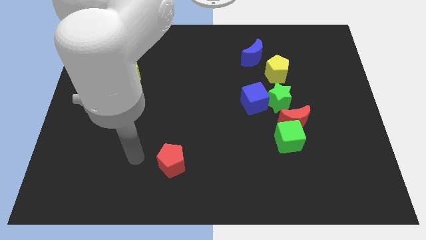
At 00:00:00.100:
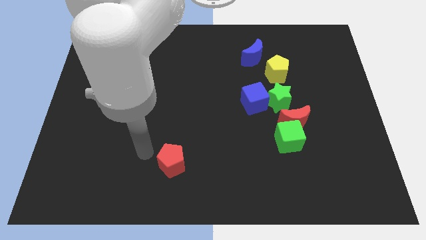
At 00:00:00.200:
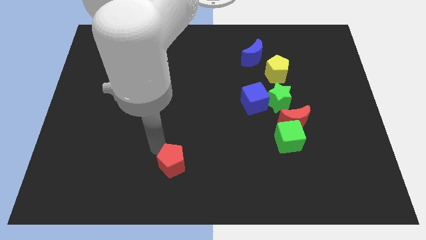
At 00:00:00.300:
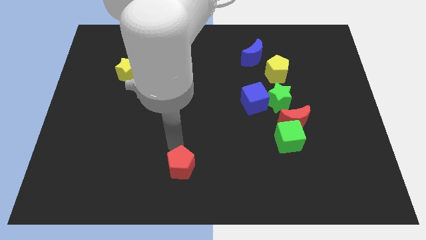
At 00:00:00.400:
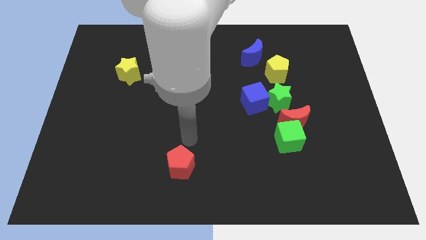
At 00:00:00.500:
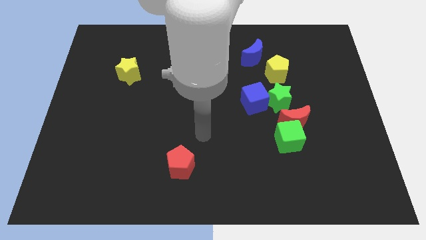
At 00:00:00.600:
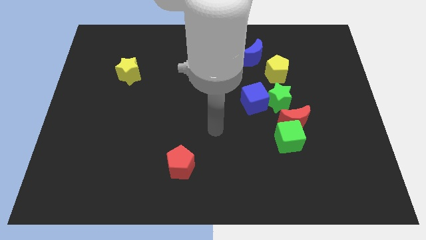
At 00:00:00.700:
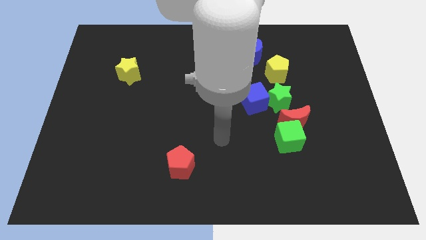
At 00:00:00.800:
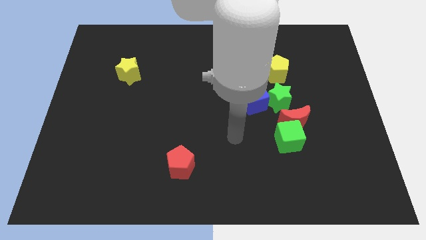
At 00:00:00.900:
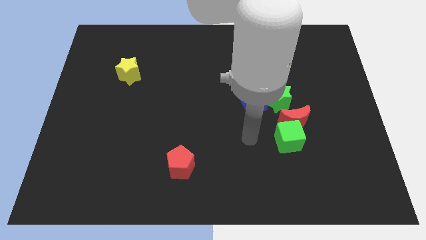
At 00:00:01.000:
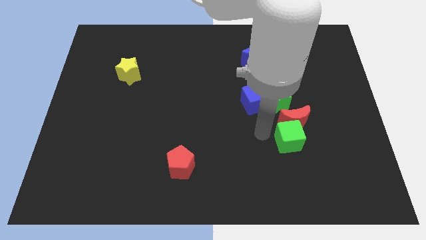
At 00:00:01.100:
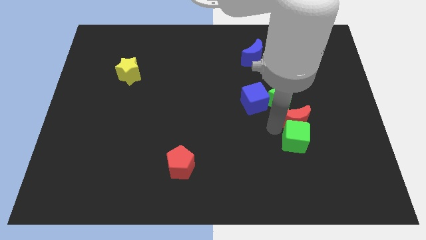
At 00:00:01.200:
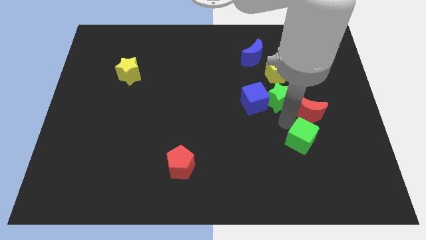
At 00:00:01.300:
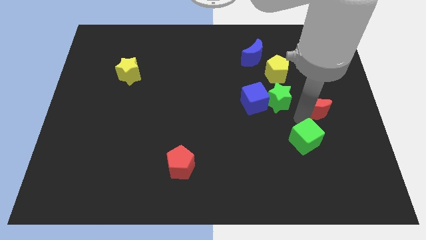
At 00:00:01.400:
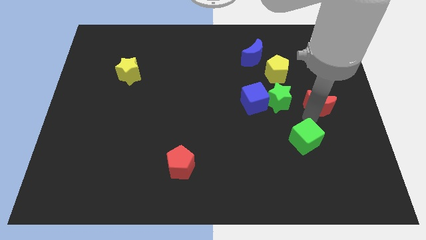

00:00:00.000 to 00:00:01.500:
pull the green cube apart from the red moon

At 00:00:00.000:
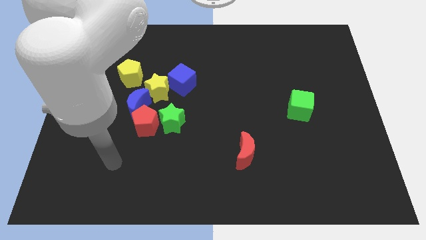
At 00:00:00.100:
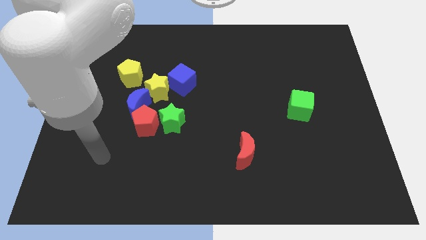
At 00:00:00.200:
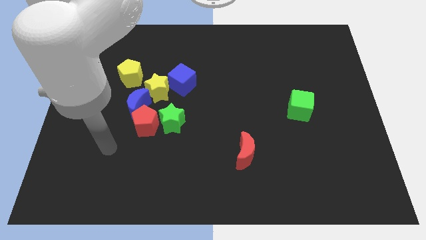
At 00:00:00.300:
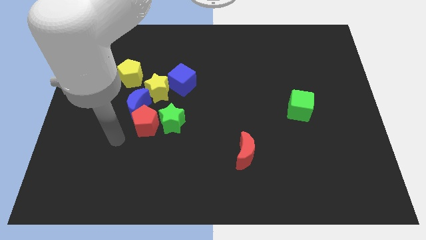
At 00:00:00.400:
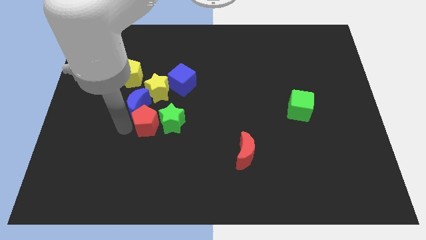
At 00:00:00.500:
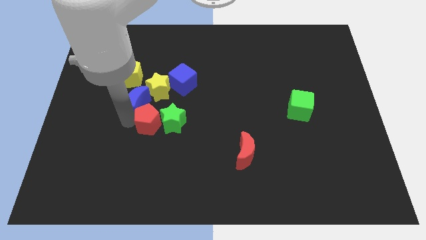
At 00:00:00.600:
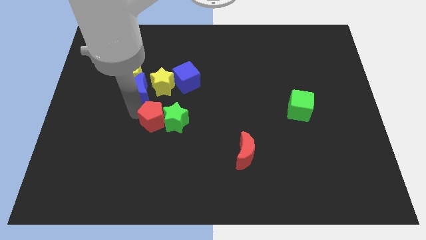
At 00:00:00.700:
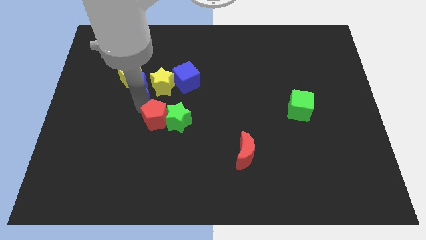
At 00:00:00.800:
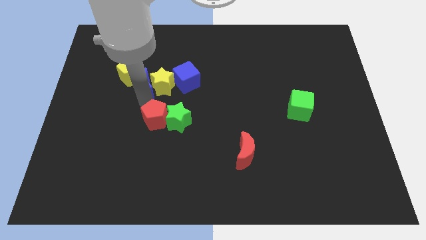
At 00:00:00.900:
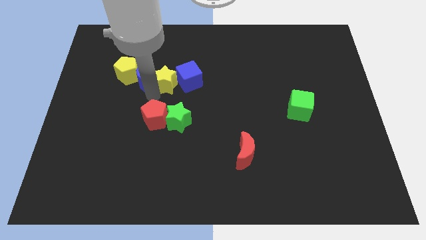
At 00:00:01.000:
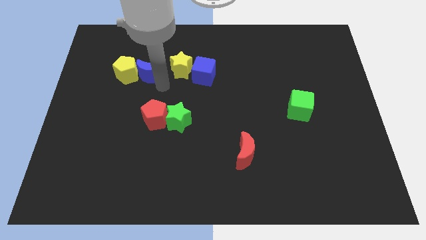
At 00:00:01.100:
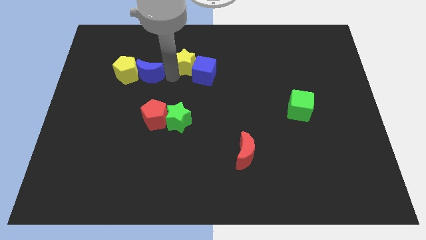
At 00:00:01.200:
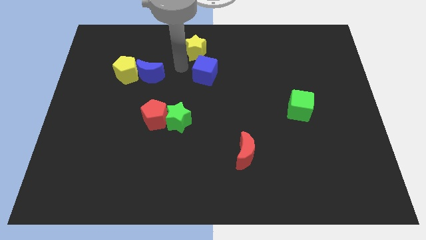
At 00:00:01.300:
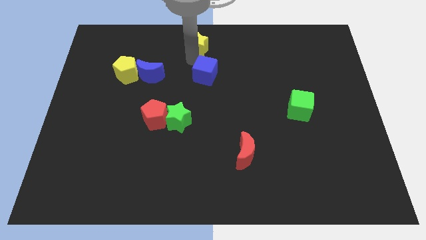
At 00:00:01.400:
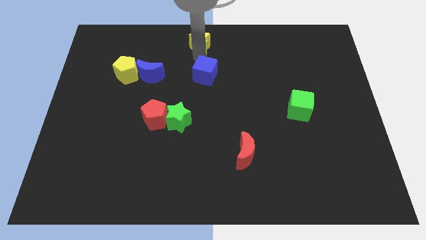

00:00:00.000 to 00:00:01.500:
pull the blue cube apart from the yellow star

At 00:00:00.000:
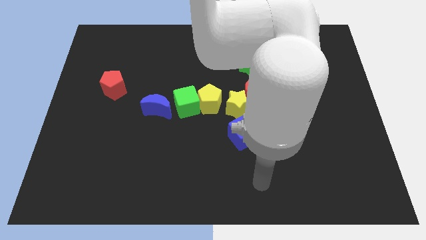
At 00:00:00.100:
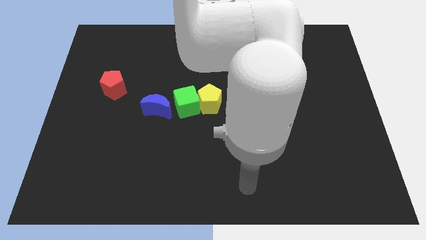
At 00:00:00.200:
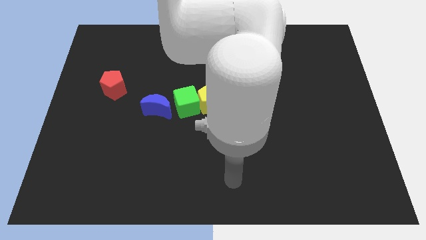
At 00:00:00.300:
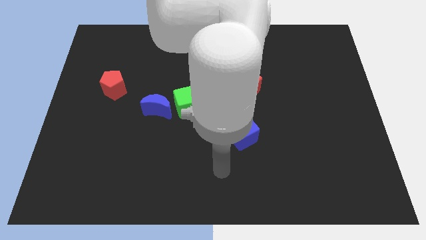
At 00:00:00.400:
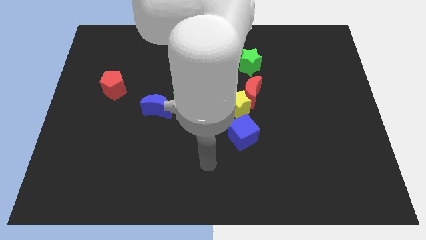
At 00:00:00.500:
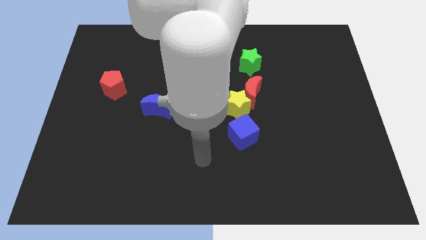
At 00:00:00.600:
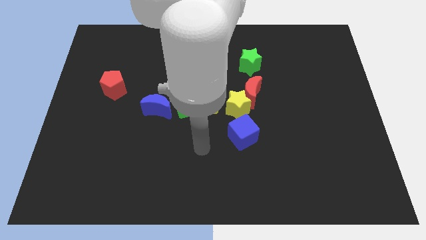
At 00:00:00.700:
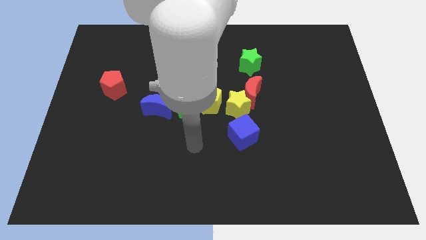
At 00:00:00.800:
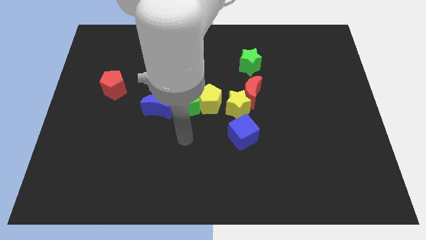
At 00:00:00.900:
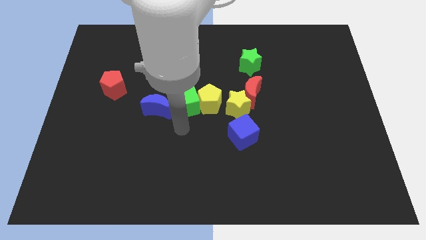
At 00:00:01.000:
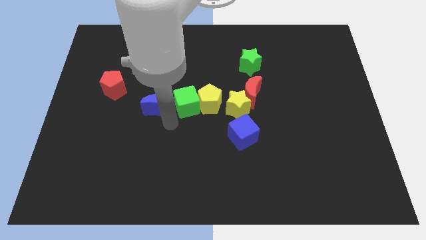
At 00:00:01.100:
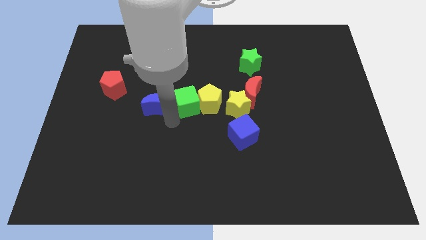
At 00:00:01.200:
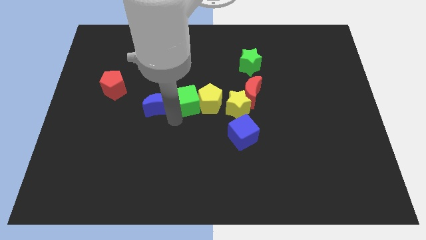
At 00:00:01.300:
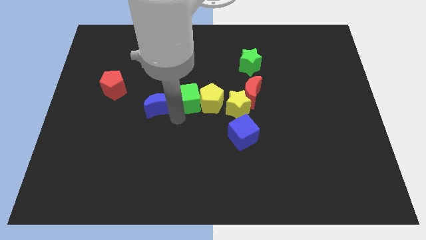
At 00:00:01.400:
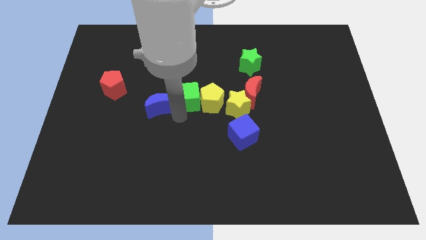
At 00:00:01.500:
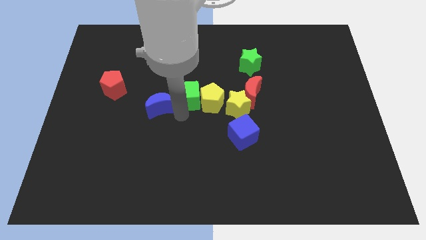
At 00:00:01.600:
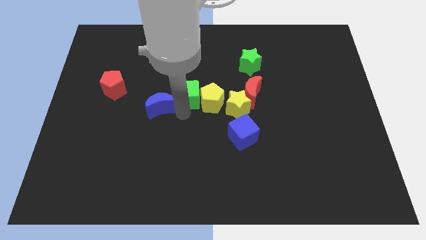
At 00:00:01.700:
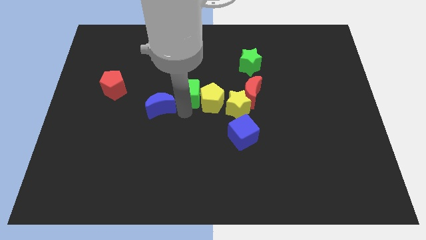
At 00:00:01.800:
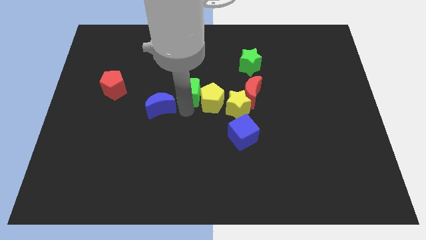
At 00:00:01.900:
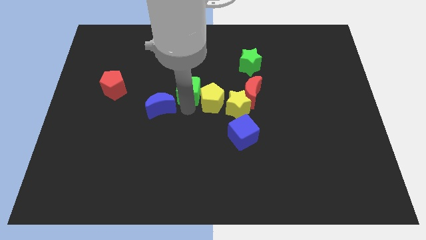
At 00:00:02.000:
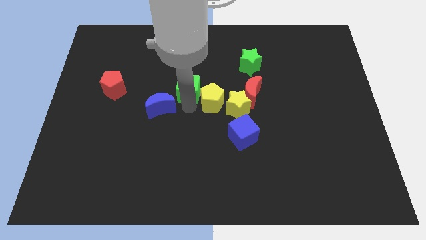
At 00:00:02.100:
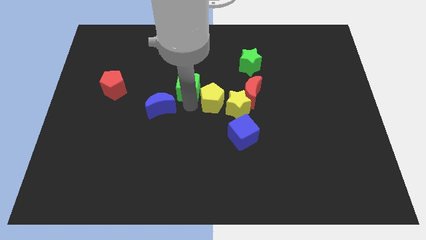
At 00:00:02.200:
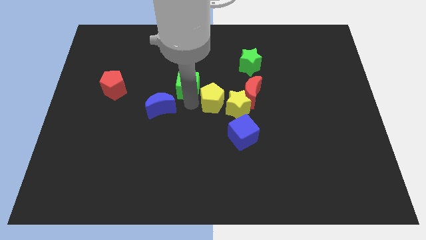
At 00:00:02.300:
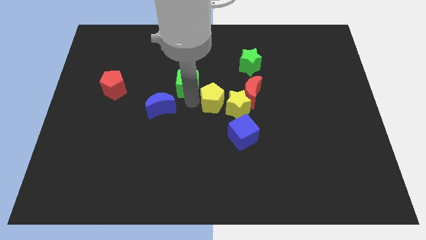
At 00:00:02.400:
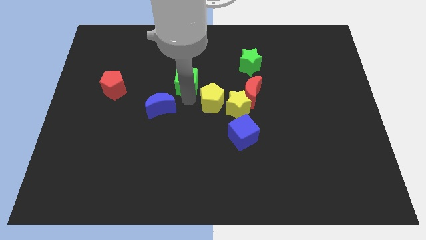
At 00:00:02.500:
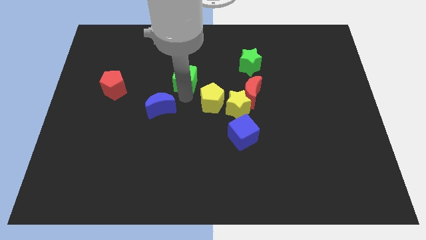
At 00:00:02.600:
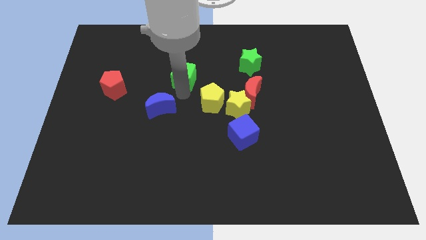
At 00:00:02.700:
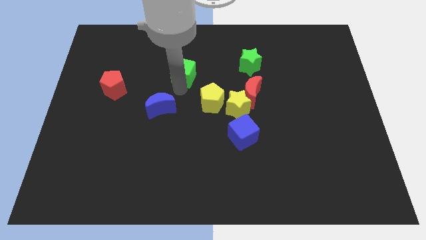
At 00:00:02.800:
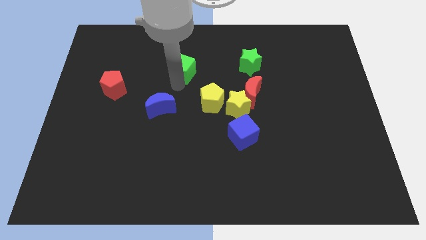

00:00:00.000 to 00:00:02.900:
move the green cube away from the yellow pentagon and blue moon

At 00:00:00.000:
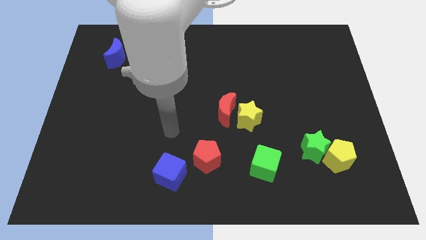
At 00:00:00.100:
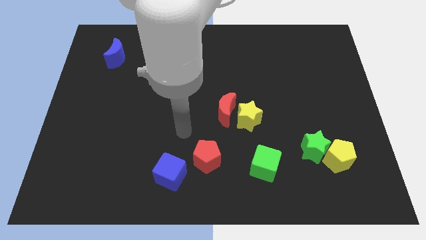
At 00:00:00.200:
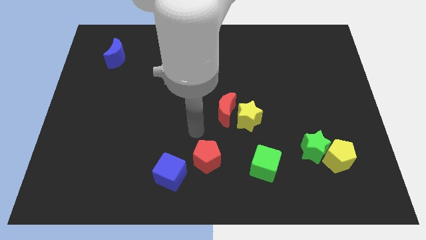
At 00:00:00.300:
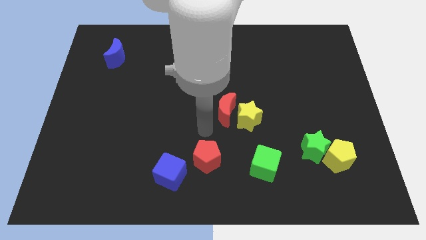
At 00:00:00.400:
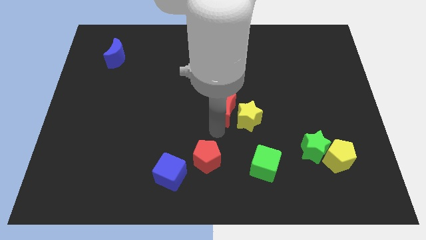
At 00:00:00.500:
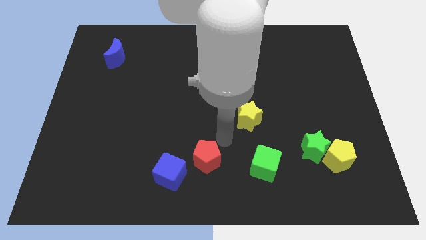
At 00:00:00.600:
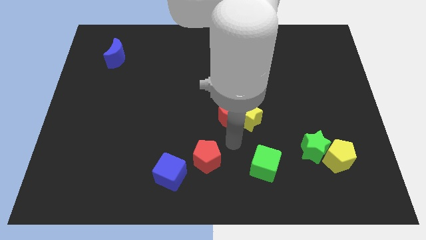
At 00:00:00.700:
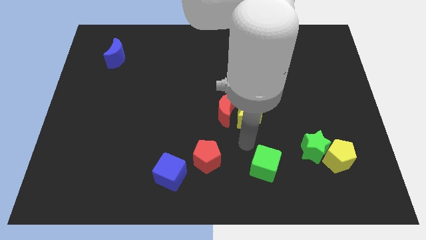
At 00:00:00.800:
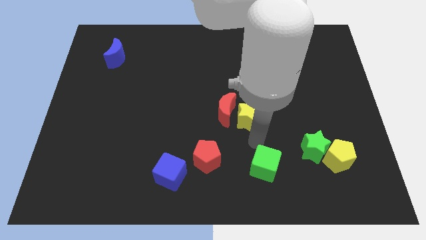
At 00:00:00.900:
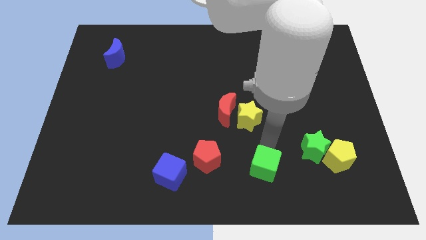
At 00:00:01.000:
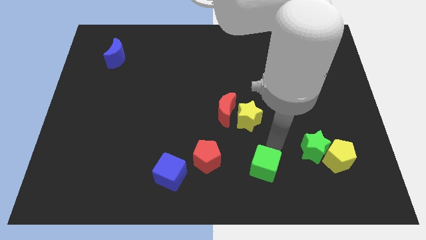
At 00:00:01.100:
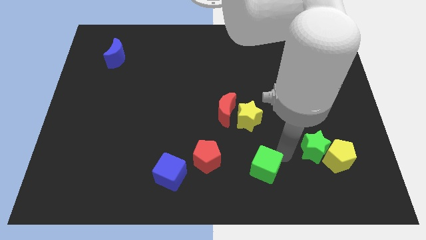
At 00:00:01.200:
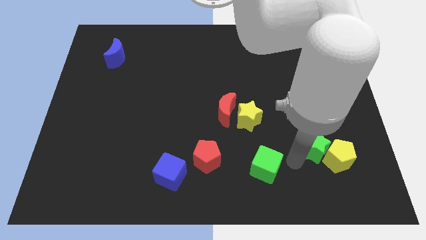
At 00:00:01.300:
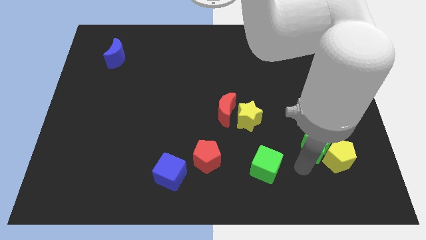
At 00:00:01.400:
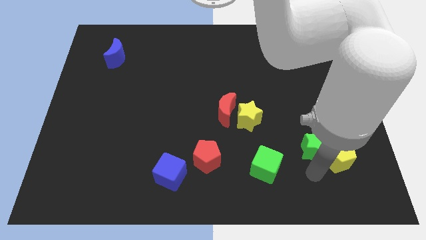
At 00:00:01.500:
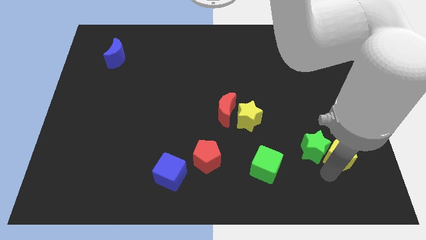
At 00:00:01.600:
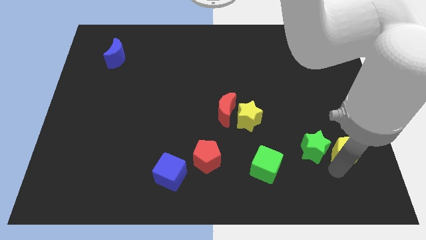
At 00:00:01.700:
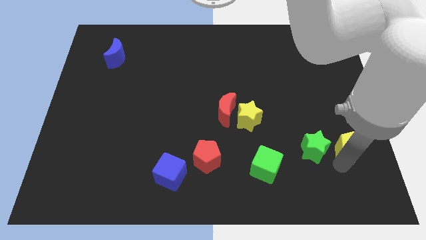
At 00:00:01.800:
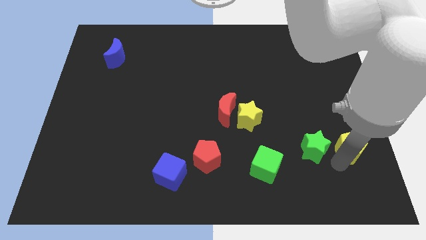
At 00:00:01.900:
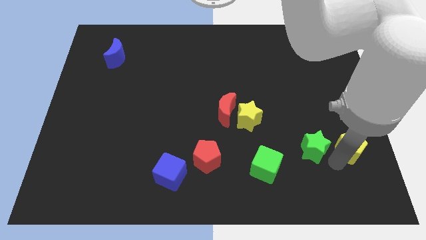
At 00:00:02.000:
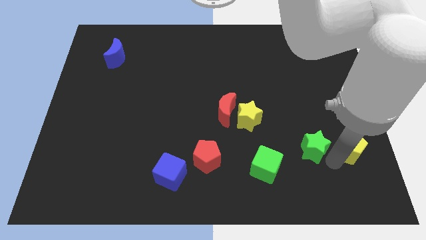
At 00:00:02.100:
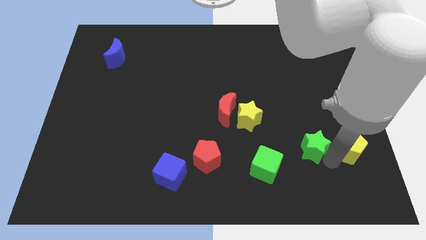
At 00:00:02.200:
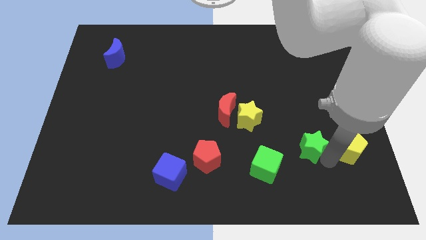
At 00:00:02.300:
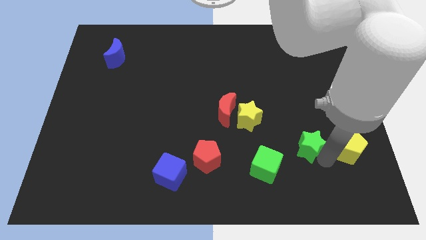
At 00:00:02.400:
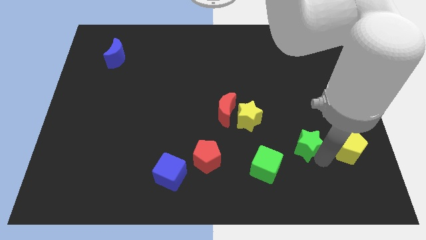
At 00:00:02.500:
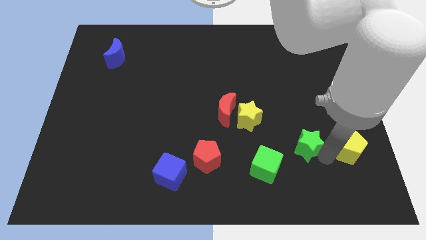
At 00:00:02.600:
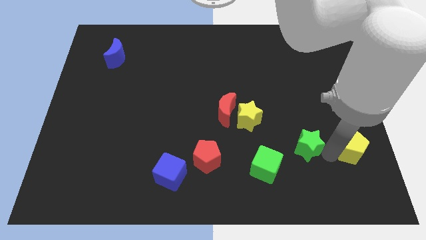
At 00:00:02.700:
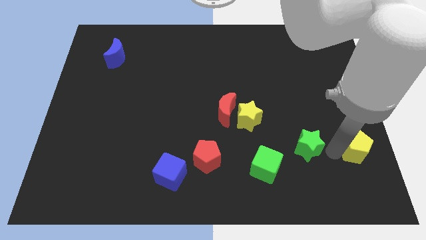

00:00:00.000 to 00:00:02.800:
pull the green star apart from the yellow pentagon

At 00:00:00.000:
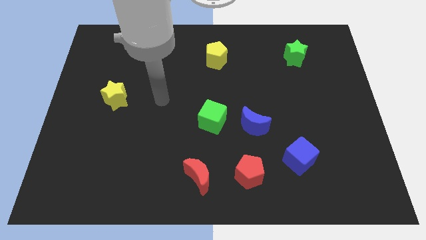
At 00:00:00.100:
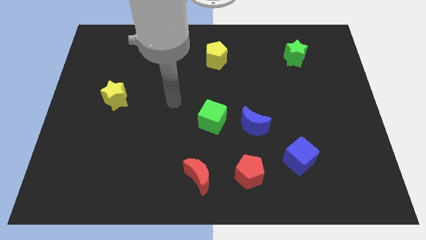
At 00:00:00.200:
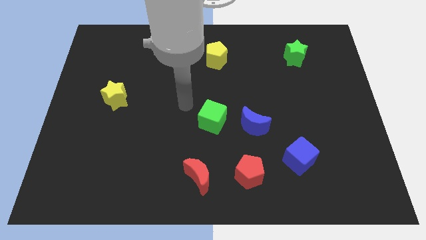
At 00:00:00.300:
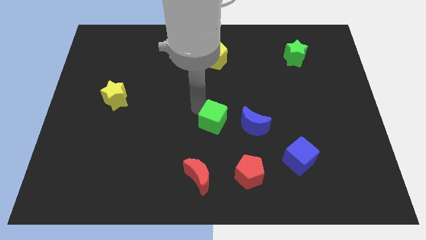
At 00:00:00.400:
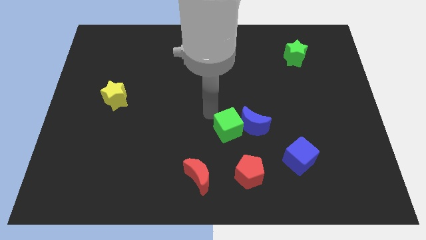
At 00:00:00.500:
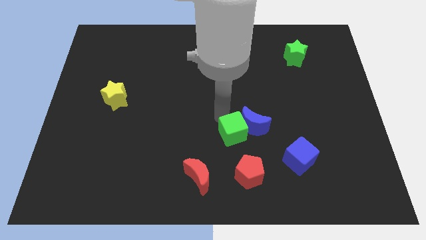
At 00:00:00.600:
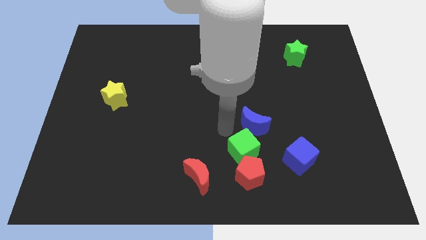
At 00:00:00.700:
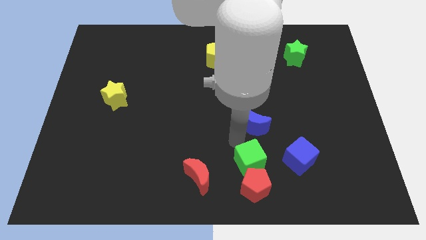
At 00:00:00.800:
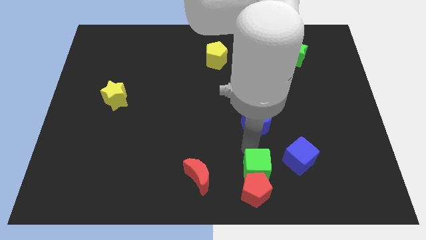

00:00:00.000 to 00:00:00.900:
separate the blue moon from the green cube
